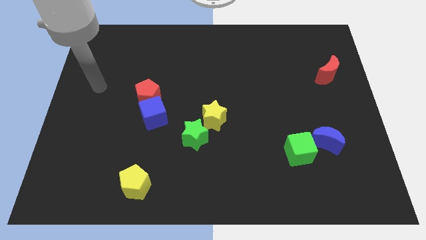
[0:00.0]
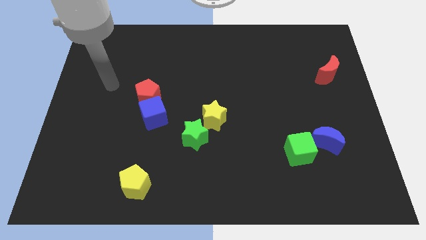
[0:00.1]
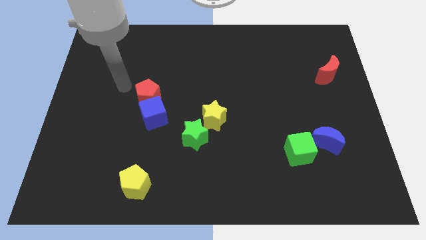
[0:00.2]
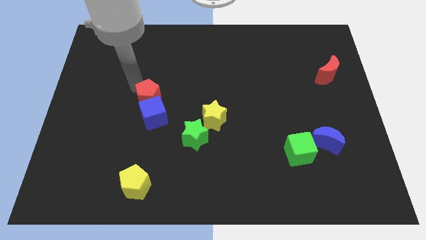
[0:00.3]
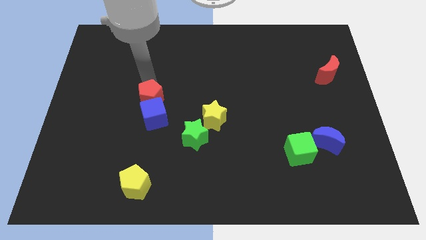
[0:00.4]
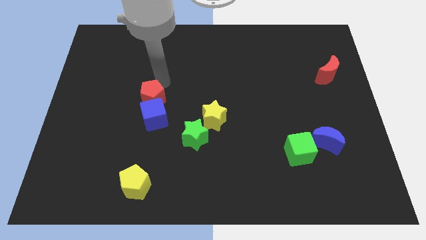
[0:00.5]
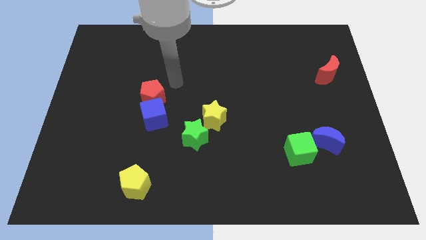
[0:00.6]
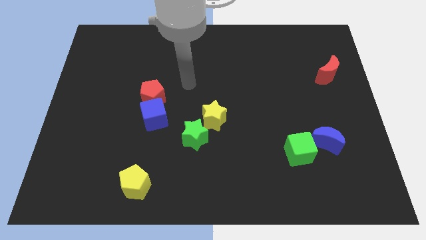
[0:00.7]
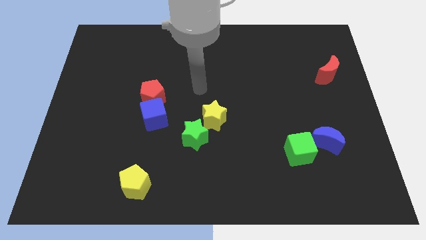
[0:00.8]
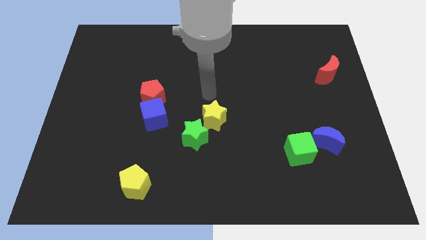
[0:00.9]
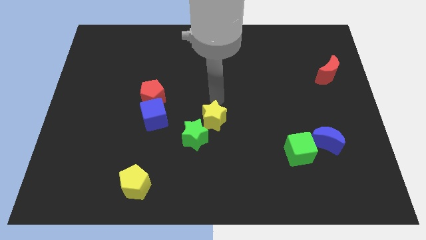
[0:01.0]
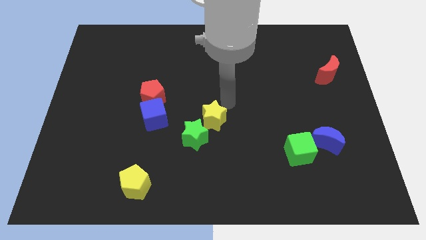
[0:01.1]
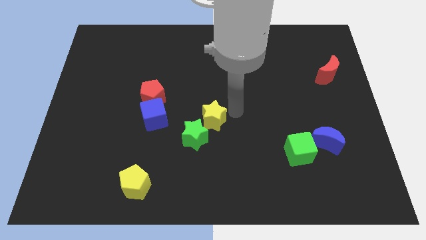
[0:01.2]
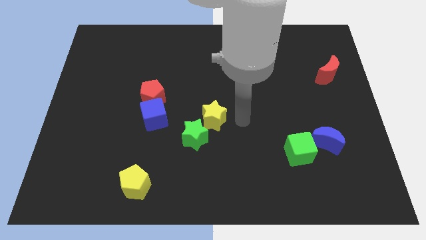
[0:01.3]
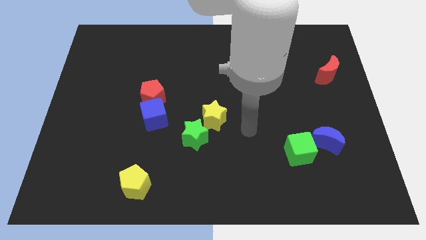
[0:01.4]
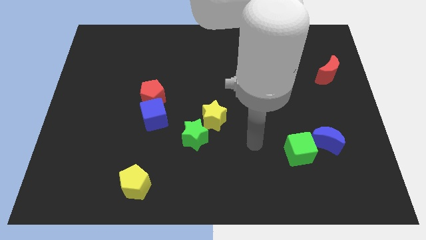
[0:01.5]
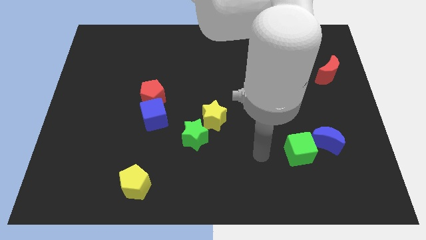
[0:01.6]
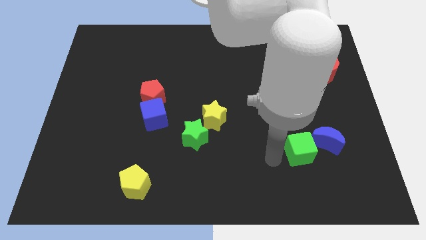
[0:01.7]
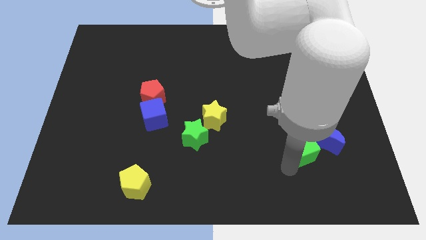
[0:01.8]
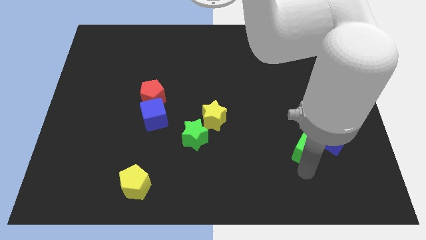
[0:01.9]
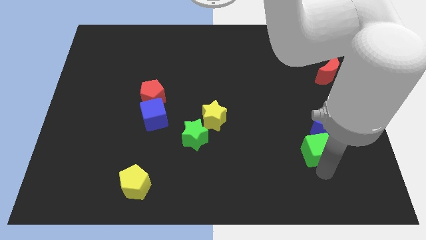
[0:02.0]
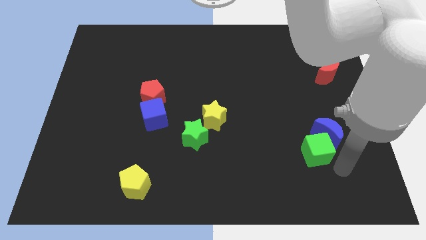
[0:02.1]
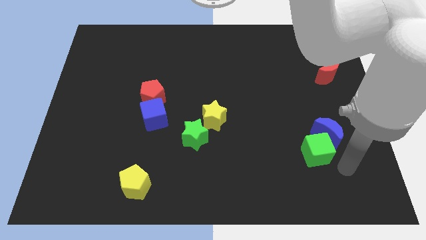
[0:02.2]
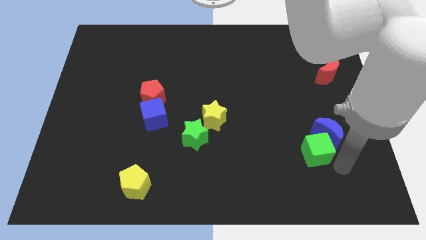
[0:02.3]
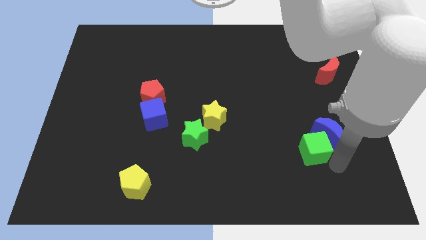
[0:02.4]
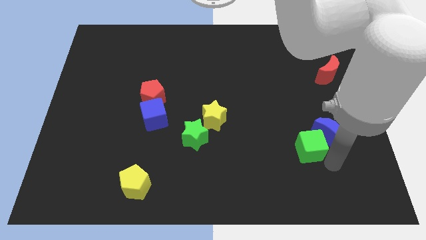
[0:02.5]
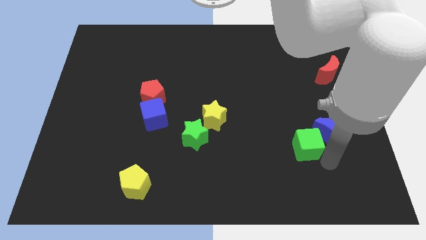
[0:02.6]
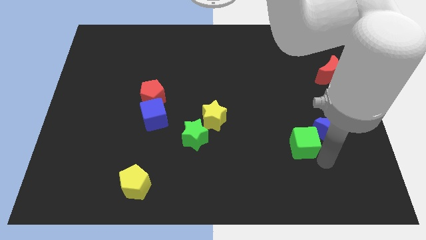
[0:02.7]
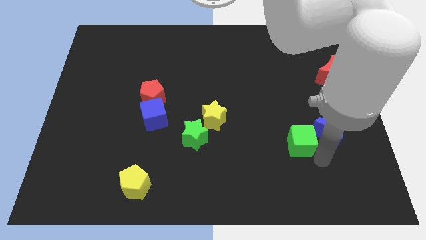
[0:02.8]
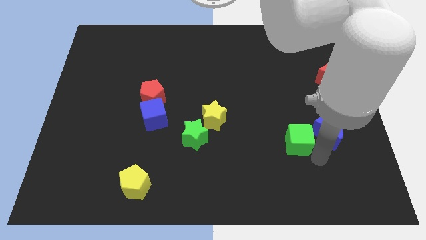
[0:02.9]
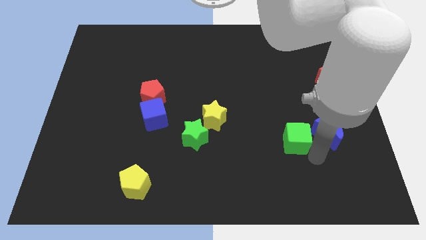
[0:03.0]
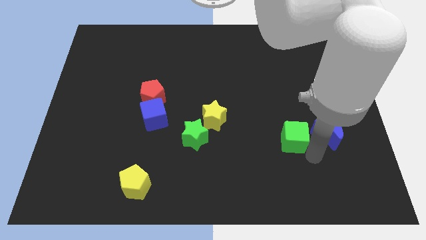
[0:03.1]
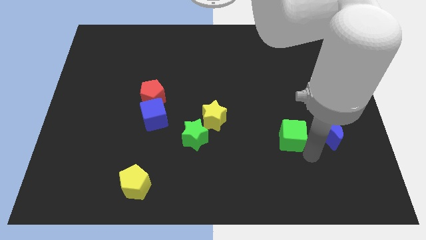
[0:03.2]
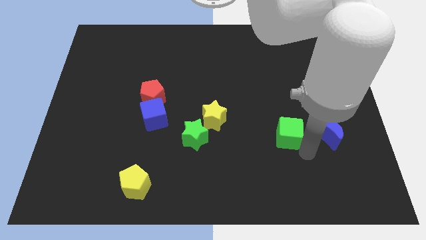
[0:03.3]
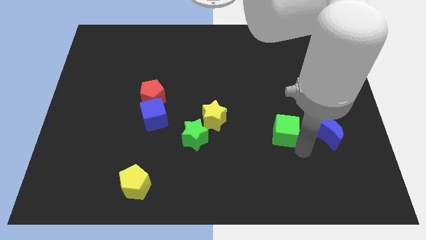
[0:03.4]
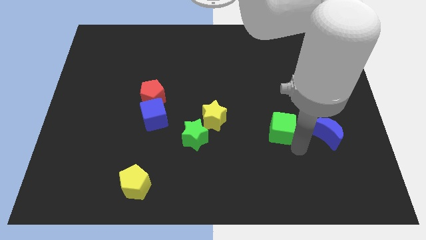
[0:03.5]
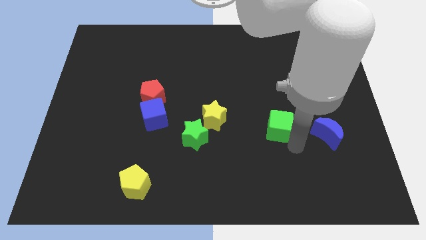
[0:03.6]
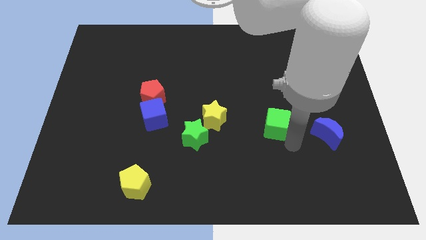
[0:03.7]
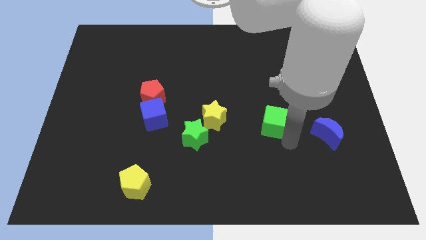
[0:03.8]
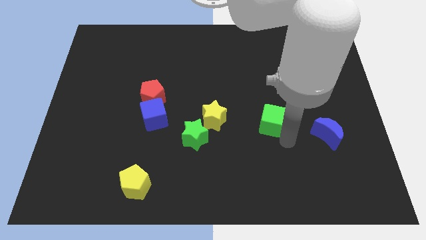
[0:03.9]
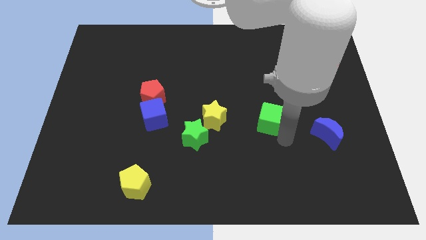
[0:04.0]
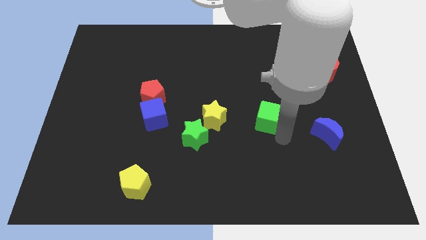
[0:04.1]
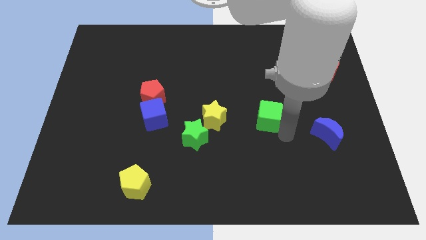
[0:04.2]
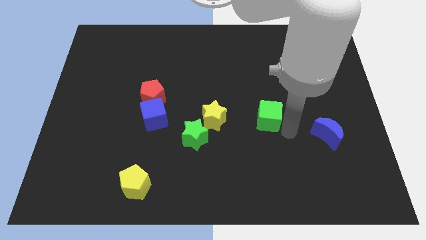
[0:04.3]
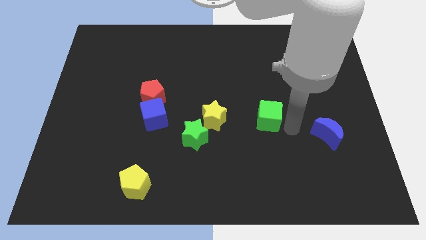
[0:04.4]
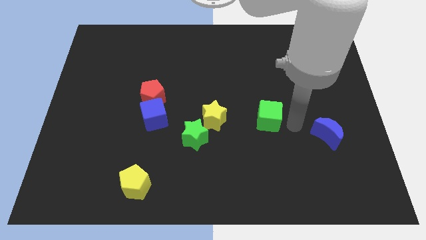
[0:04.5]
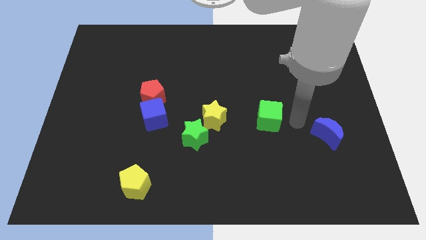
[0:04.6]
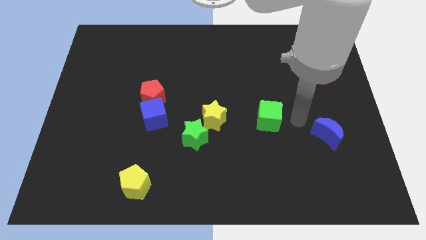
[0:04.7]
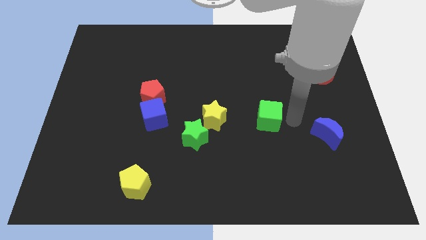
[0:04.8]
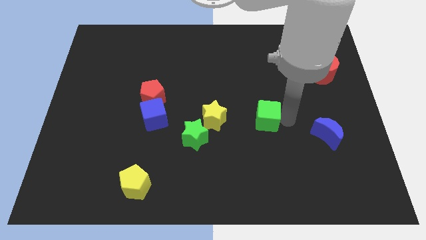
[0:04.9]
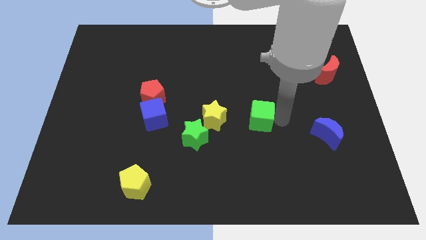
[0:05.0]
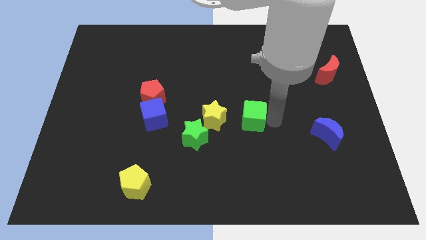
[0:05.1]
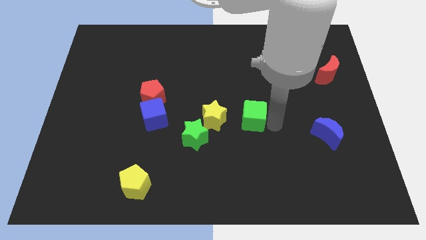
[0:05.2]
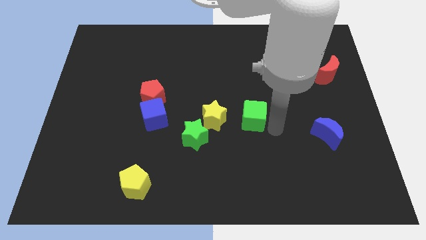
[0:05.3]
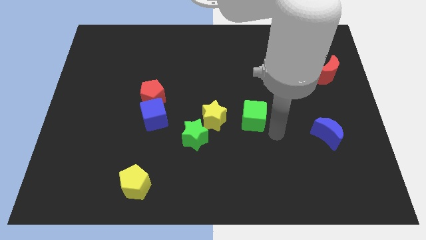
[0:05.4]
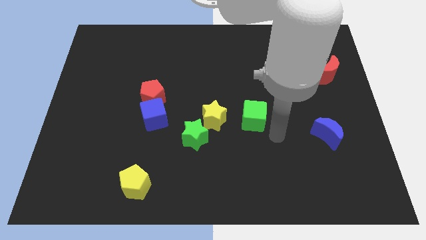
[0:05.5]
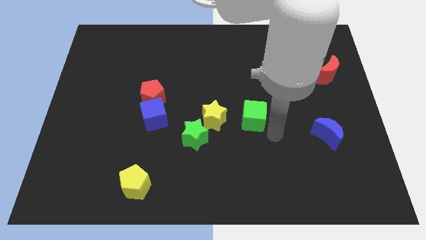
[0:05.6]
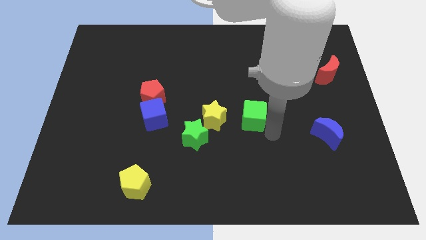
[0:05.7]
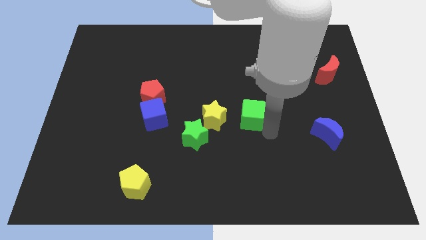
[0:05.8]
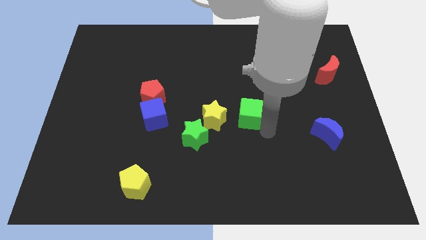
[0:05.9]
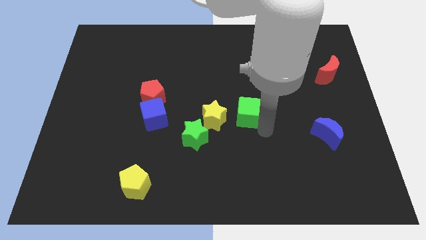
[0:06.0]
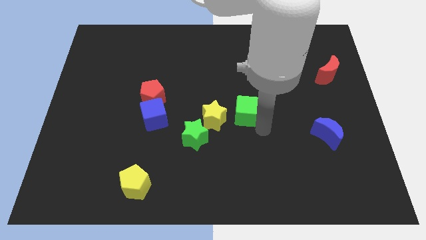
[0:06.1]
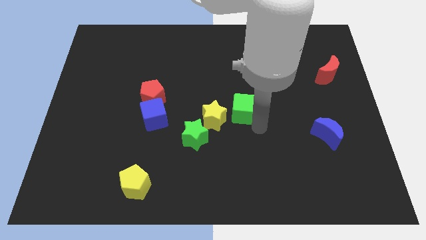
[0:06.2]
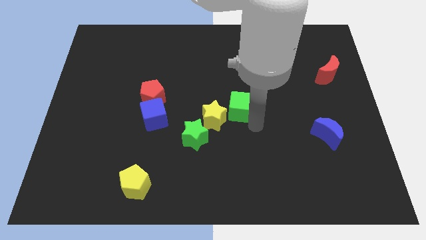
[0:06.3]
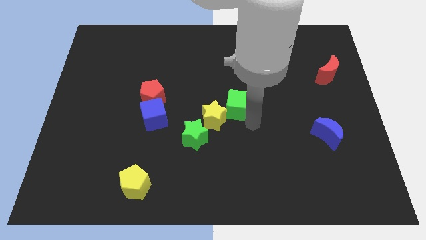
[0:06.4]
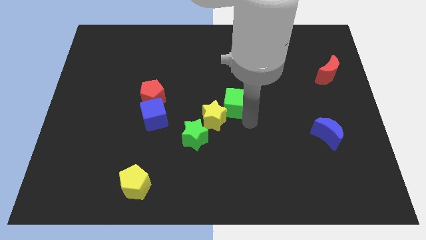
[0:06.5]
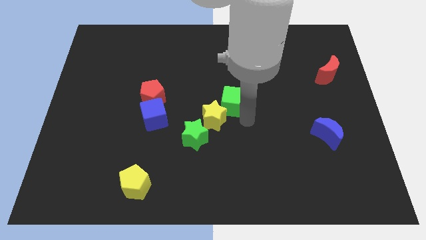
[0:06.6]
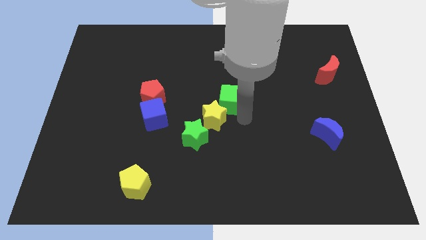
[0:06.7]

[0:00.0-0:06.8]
slide the green cube upwards and to the left diagonally

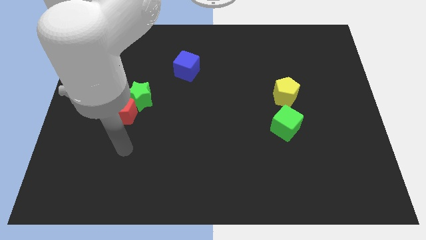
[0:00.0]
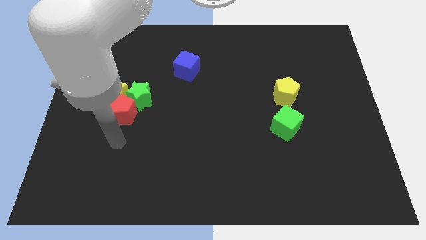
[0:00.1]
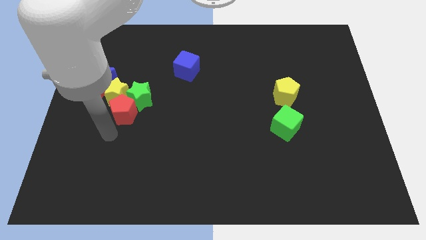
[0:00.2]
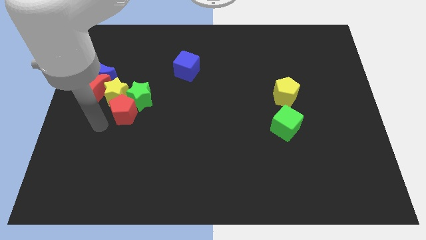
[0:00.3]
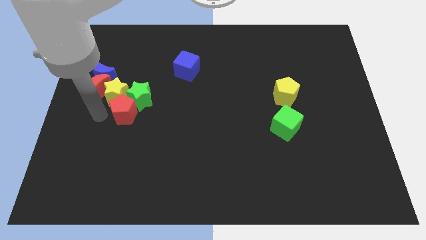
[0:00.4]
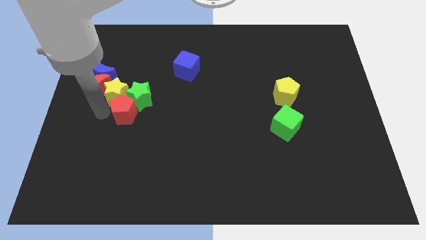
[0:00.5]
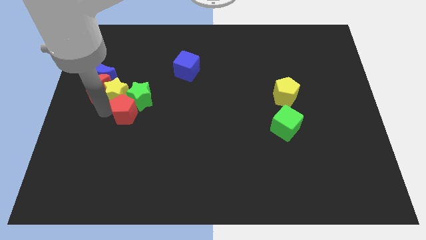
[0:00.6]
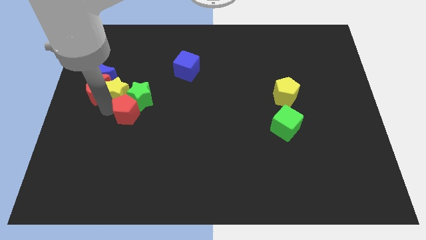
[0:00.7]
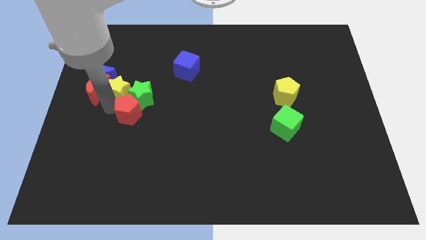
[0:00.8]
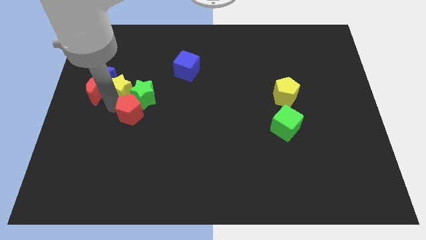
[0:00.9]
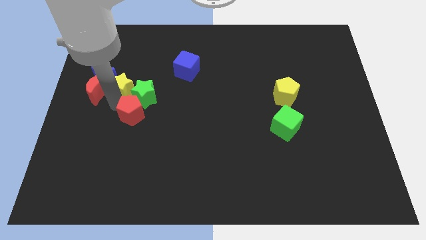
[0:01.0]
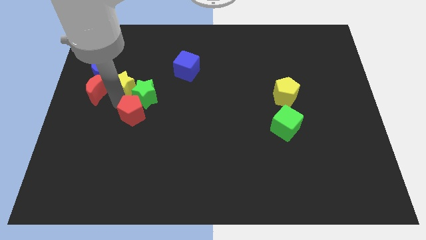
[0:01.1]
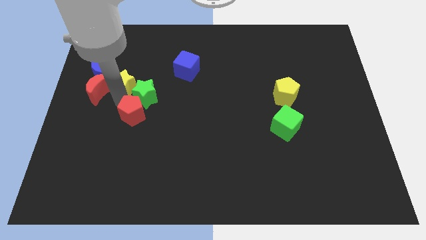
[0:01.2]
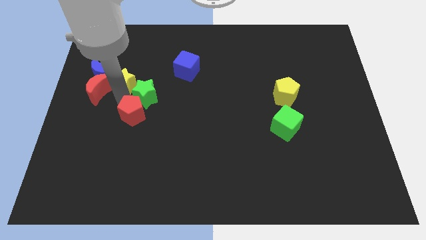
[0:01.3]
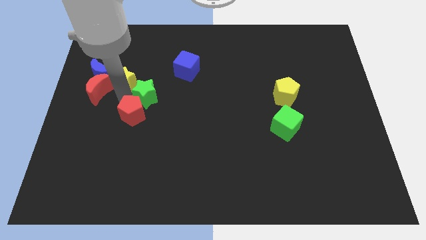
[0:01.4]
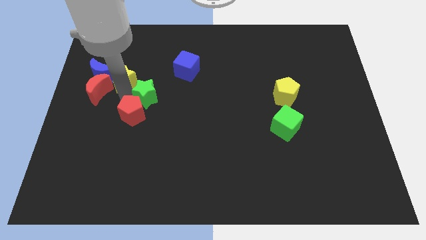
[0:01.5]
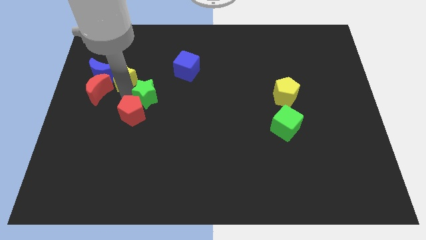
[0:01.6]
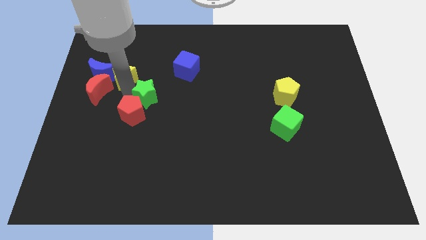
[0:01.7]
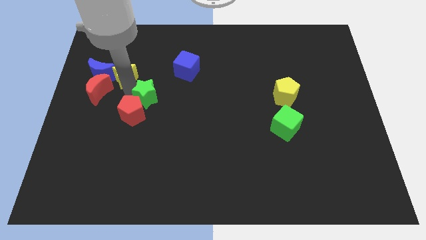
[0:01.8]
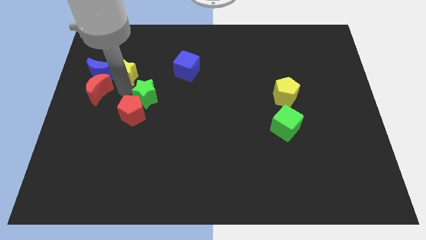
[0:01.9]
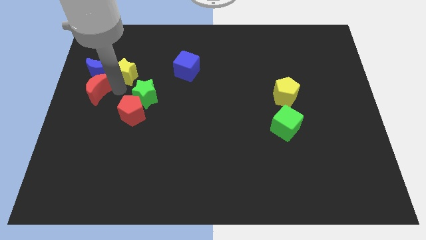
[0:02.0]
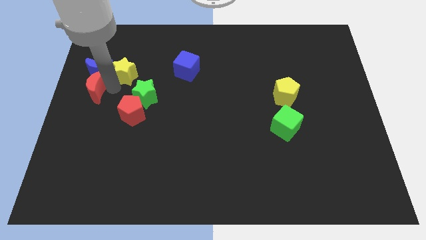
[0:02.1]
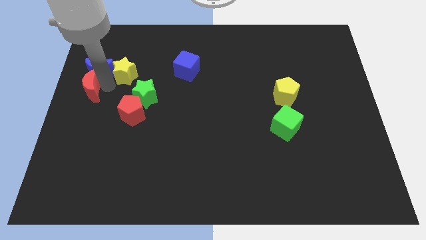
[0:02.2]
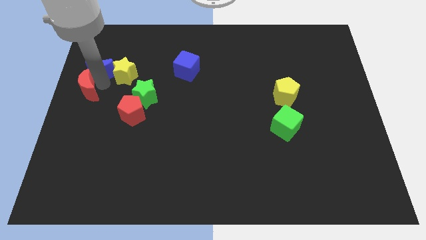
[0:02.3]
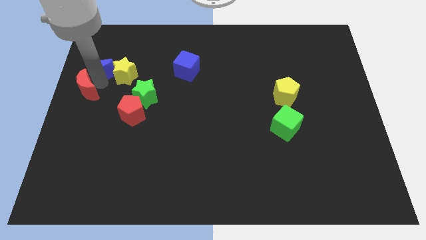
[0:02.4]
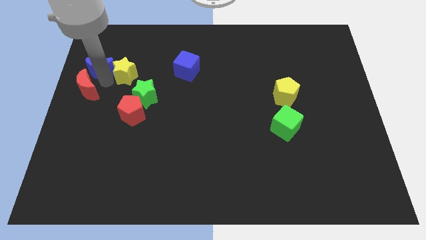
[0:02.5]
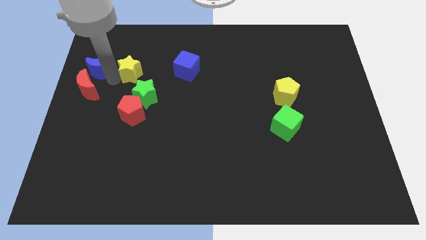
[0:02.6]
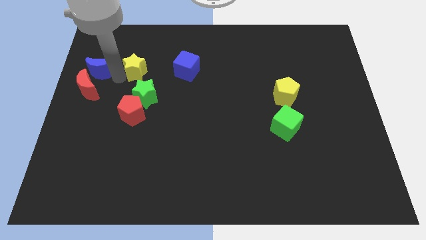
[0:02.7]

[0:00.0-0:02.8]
move the yellow star up and then to the right somewhat
